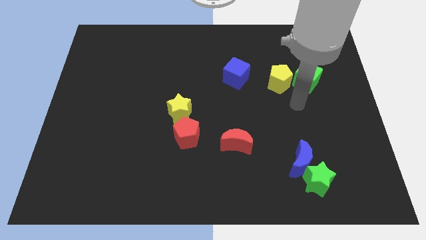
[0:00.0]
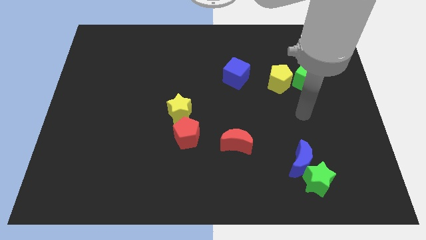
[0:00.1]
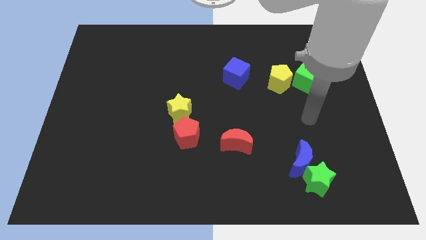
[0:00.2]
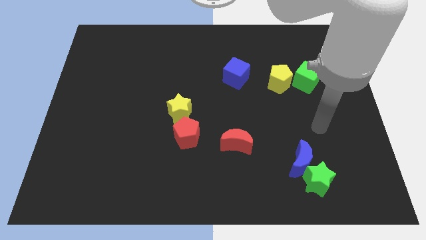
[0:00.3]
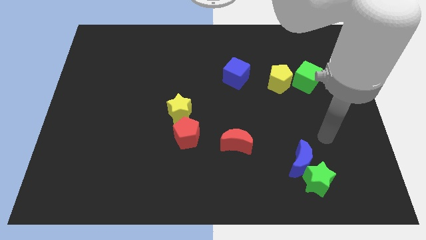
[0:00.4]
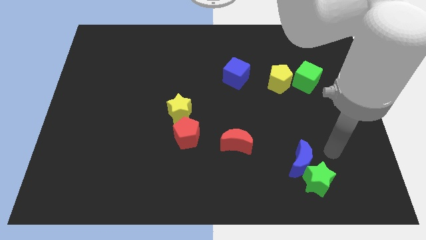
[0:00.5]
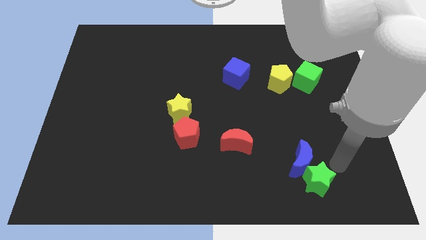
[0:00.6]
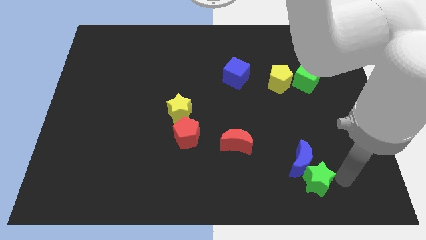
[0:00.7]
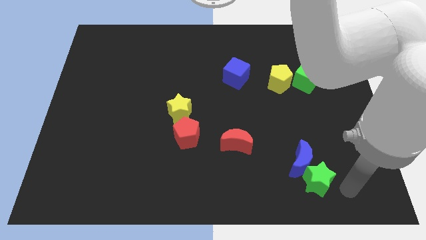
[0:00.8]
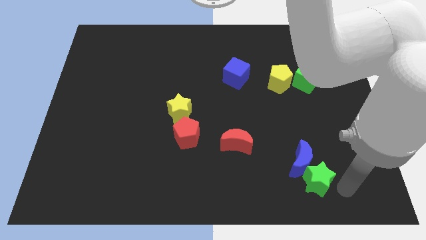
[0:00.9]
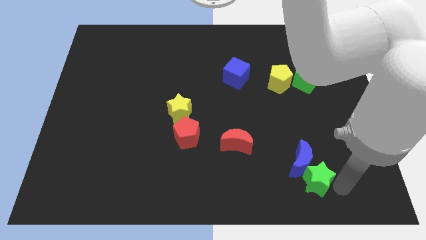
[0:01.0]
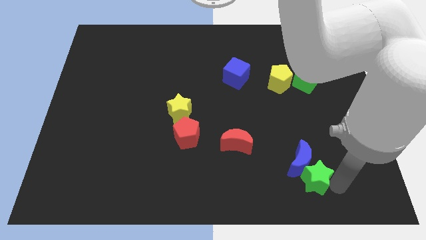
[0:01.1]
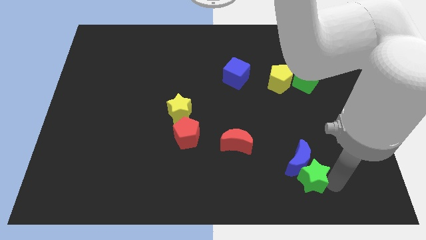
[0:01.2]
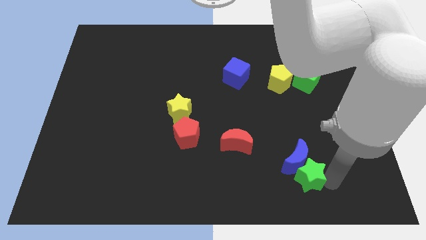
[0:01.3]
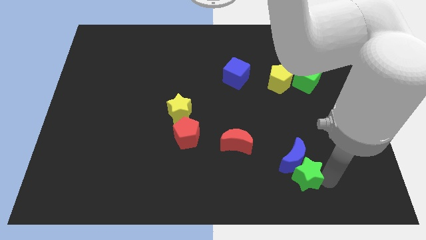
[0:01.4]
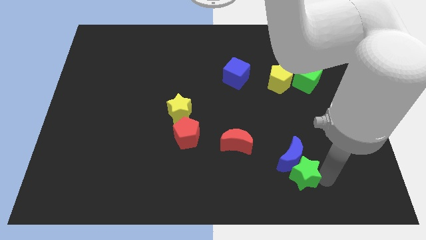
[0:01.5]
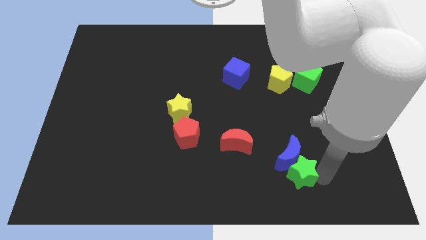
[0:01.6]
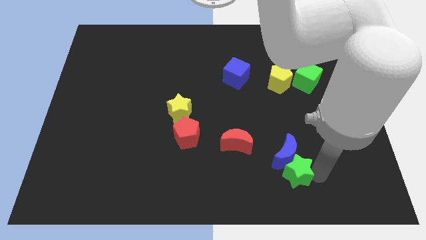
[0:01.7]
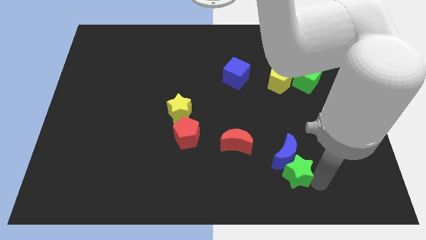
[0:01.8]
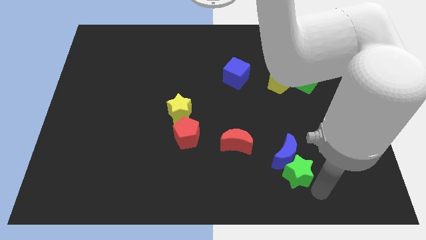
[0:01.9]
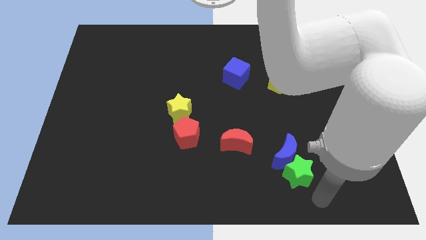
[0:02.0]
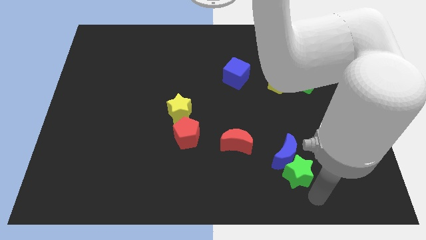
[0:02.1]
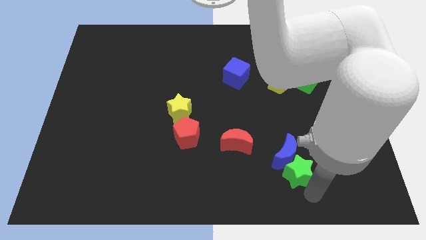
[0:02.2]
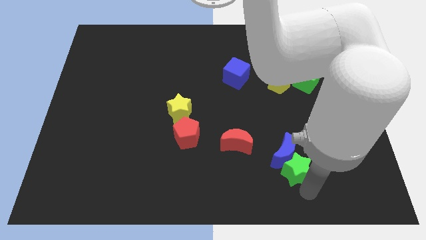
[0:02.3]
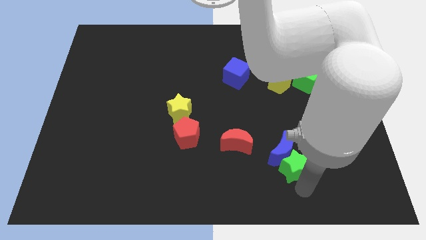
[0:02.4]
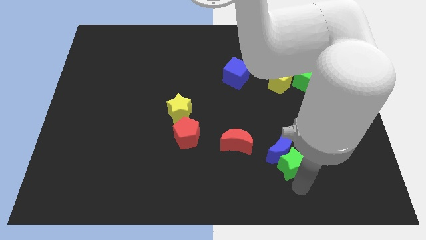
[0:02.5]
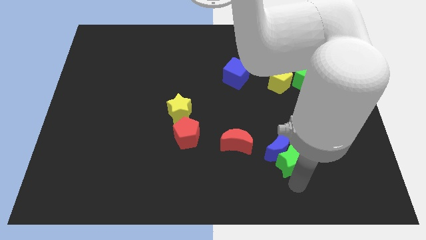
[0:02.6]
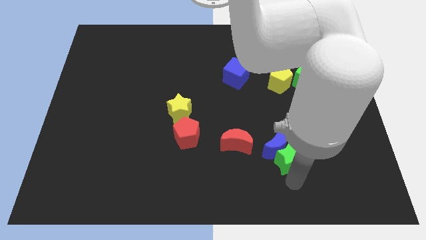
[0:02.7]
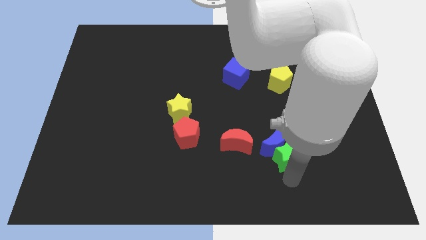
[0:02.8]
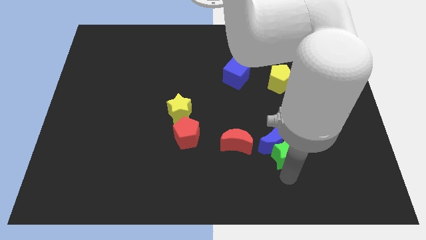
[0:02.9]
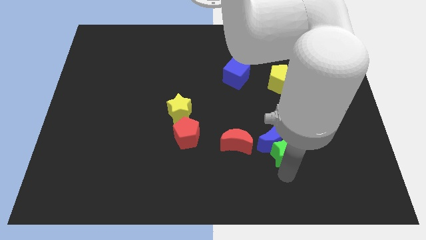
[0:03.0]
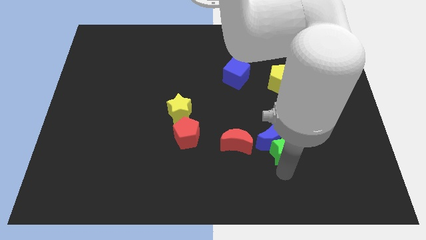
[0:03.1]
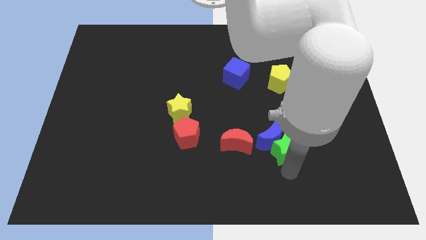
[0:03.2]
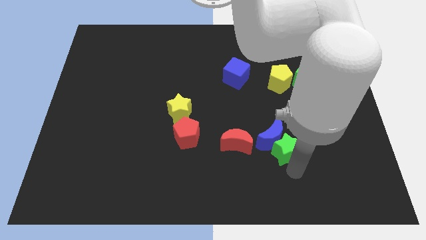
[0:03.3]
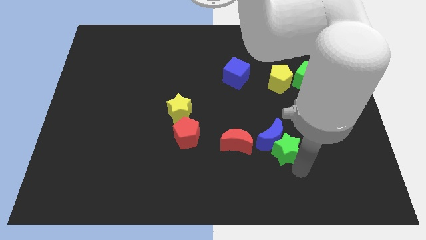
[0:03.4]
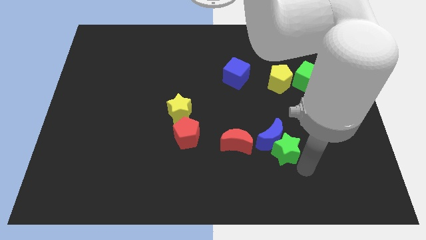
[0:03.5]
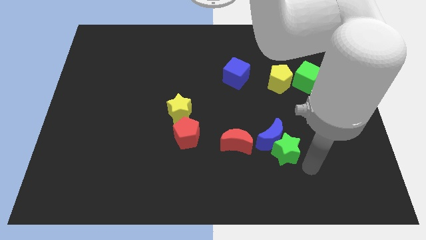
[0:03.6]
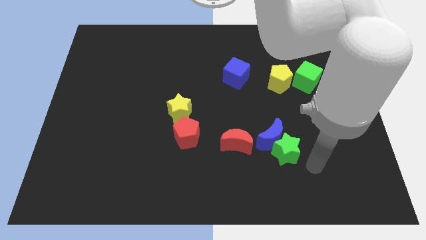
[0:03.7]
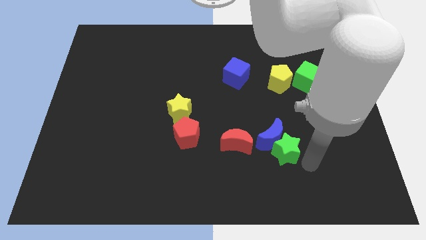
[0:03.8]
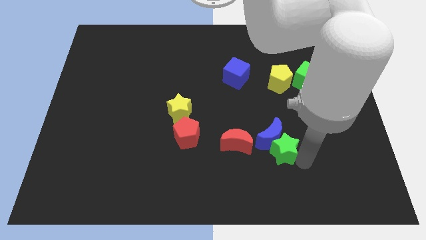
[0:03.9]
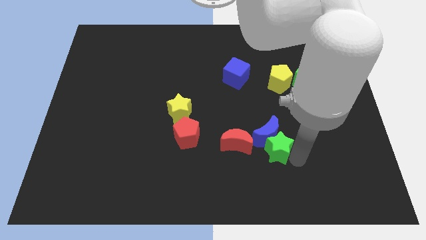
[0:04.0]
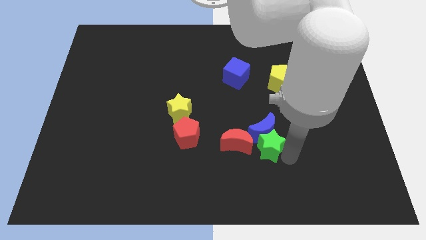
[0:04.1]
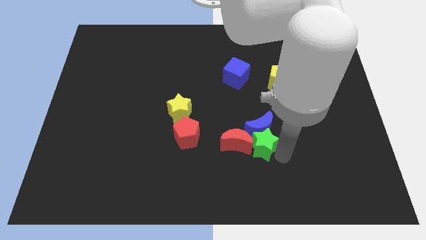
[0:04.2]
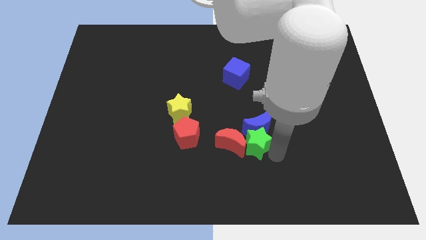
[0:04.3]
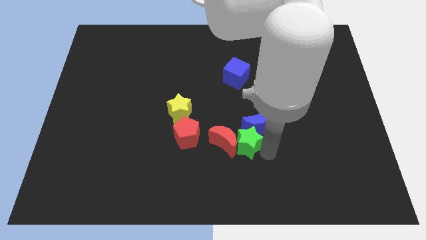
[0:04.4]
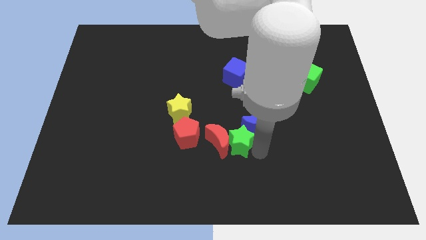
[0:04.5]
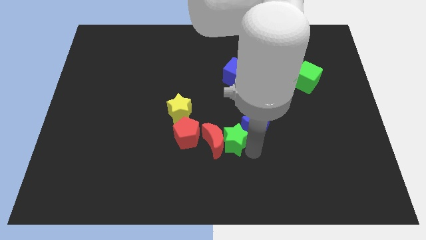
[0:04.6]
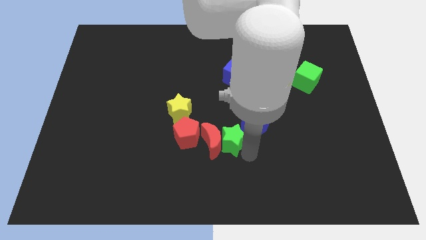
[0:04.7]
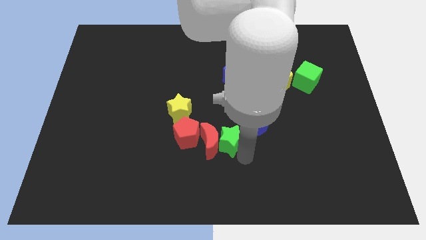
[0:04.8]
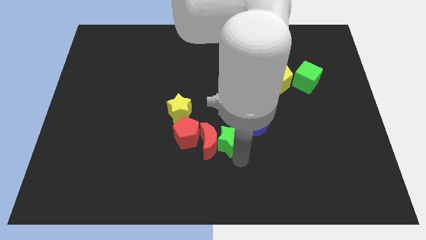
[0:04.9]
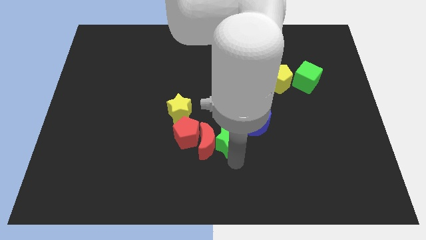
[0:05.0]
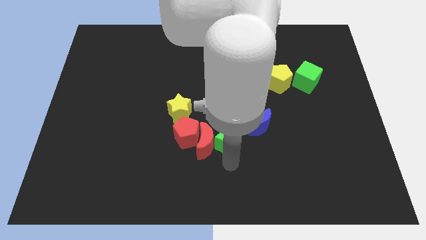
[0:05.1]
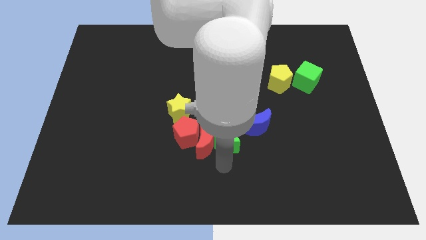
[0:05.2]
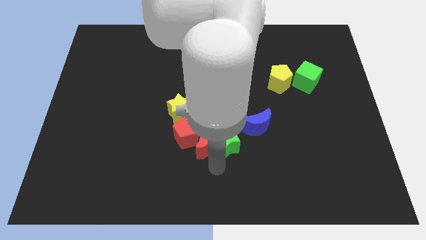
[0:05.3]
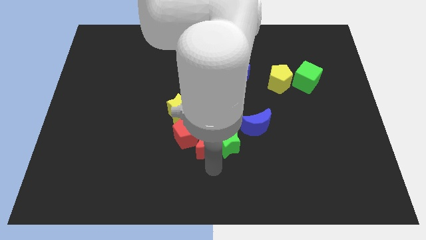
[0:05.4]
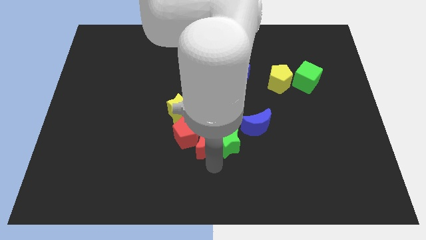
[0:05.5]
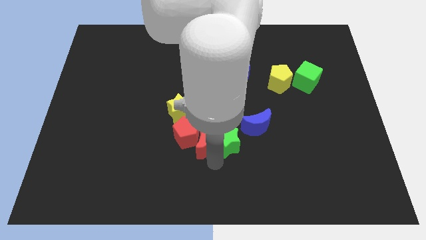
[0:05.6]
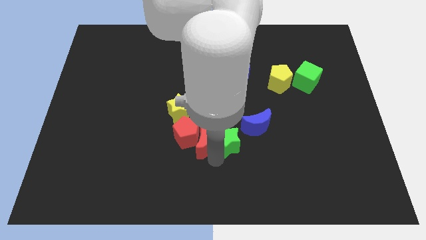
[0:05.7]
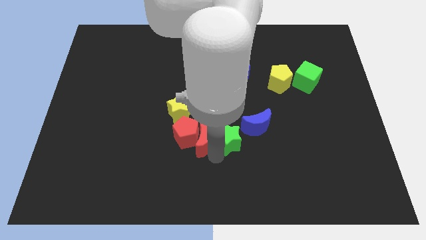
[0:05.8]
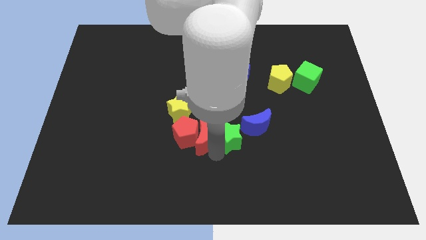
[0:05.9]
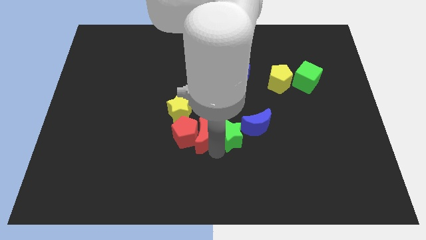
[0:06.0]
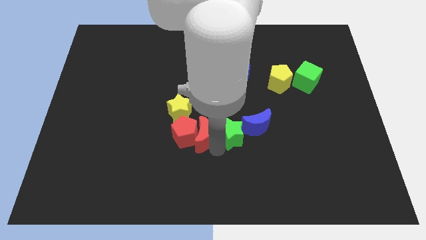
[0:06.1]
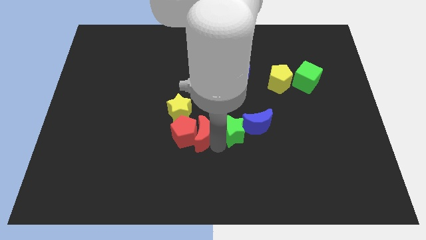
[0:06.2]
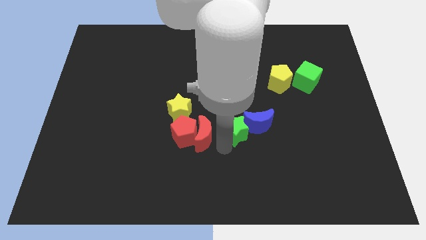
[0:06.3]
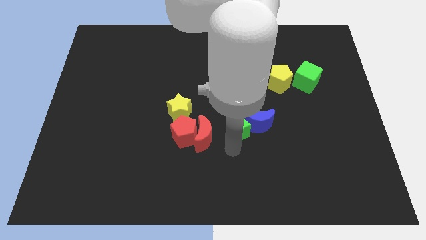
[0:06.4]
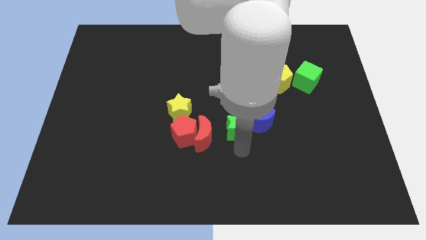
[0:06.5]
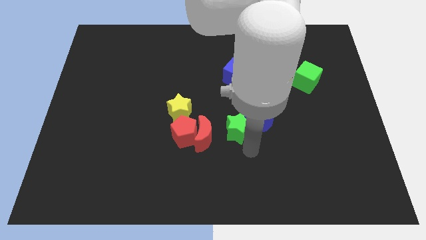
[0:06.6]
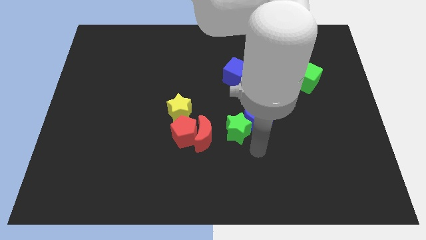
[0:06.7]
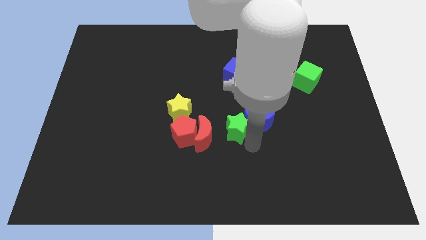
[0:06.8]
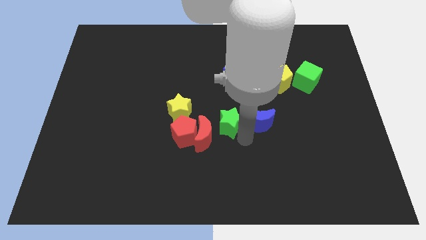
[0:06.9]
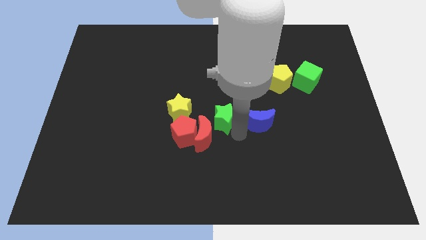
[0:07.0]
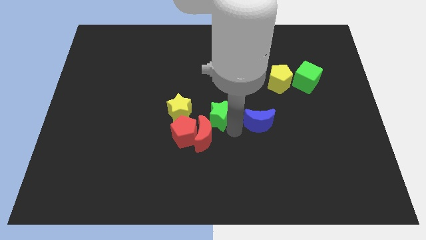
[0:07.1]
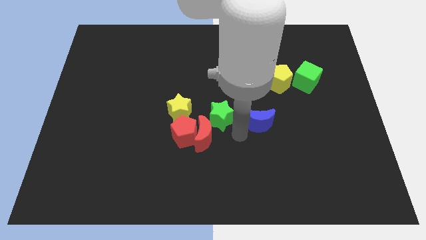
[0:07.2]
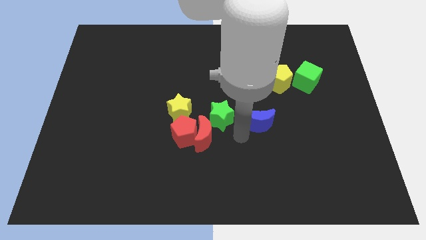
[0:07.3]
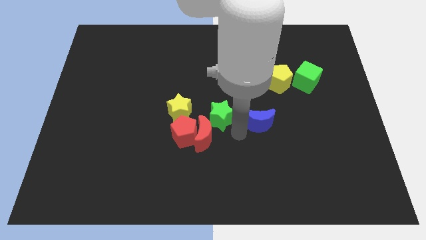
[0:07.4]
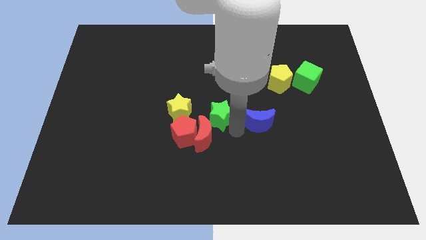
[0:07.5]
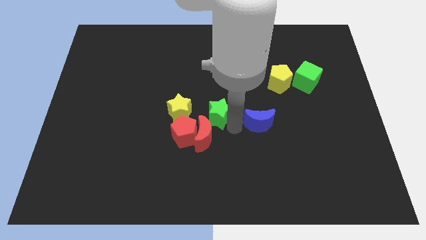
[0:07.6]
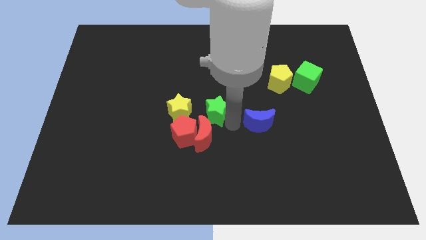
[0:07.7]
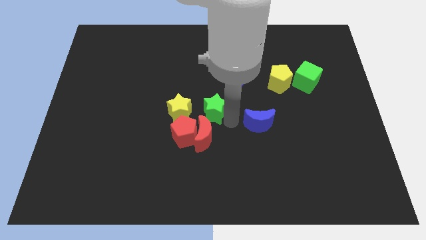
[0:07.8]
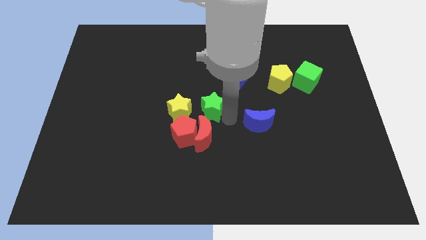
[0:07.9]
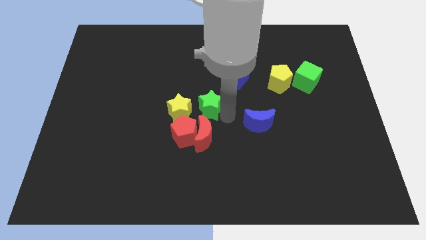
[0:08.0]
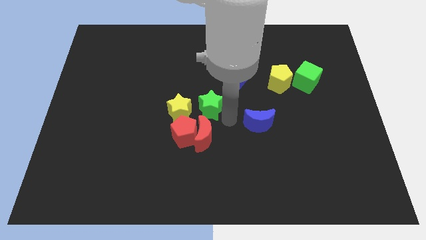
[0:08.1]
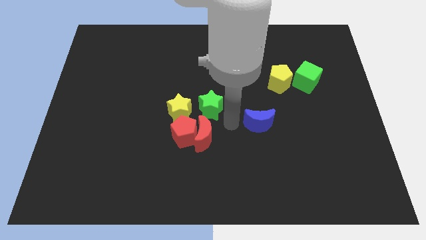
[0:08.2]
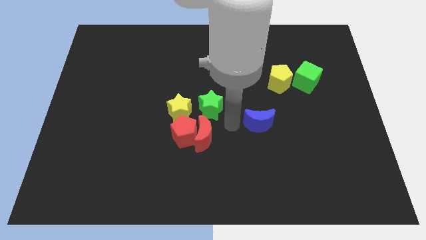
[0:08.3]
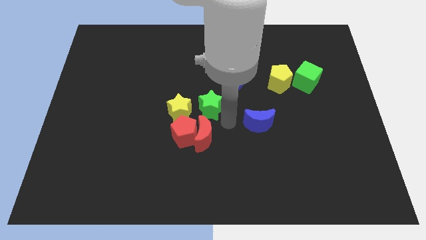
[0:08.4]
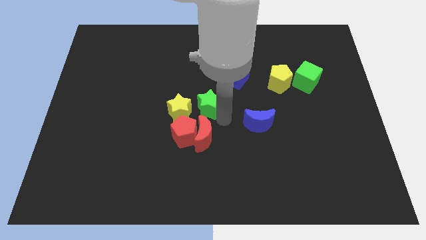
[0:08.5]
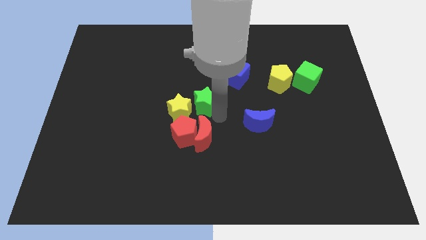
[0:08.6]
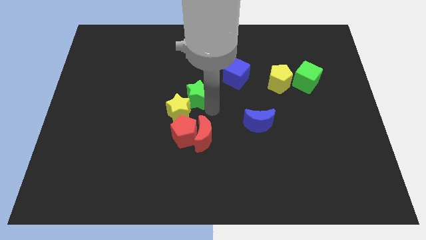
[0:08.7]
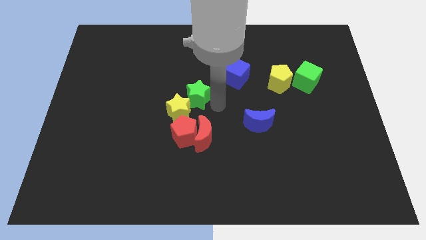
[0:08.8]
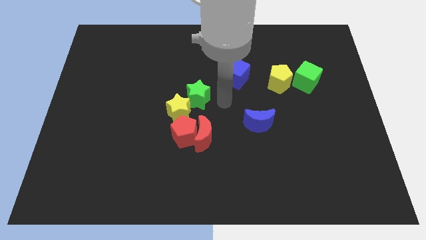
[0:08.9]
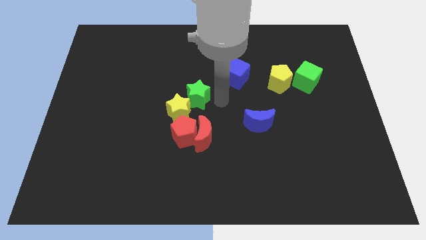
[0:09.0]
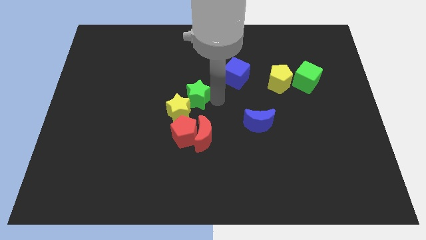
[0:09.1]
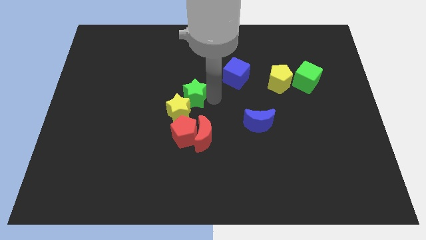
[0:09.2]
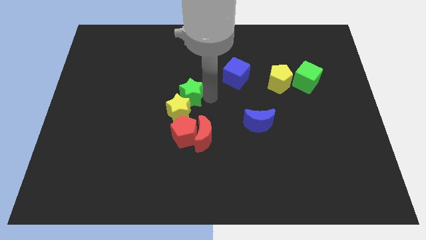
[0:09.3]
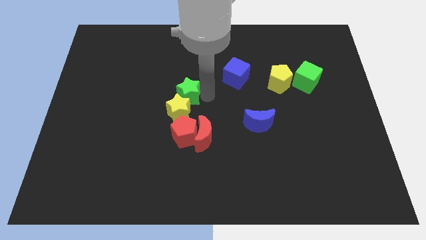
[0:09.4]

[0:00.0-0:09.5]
push the green star diagonally up and to the left of the yellow star
